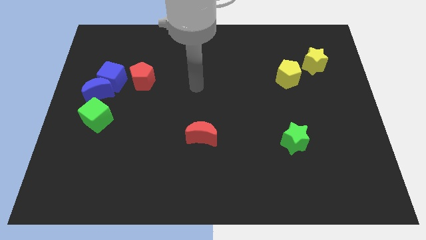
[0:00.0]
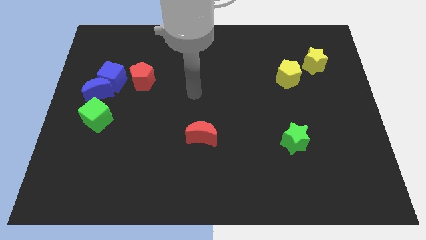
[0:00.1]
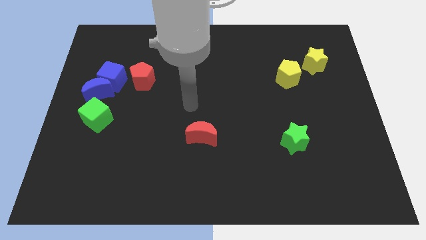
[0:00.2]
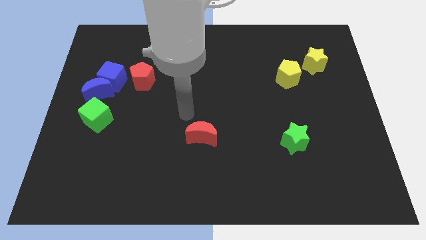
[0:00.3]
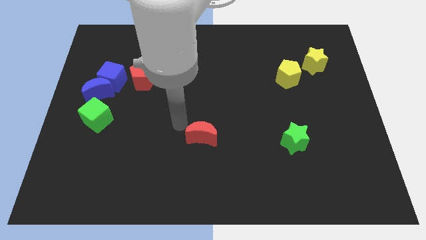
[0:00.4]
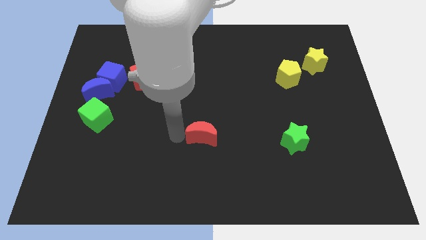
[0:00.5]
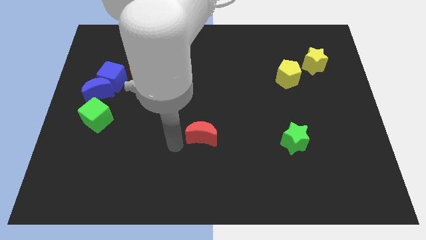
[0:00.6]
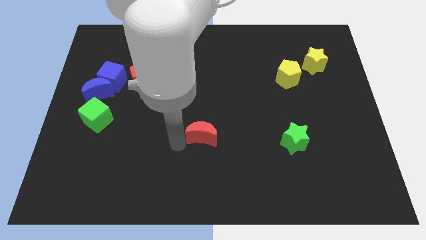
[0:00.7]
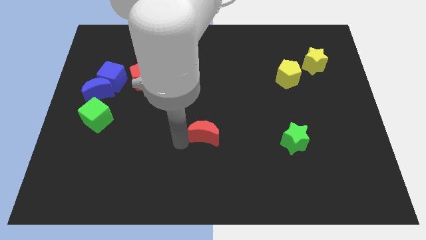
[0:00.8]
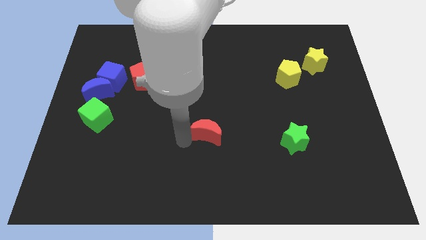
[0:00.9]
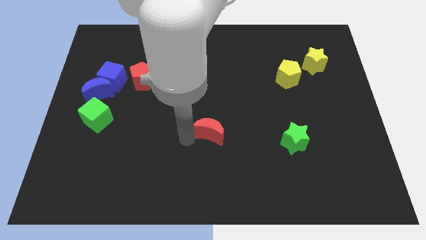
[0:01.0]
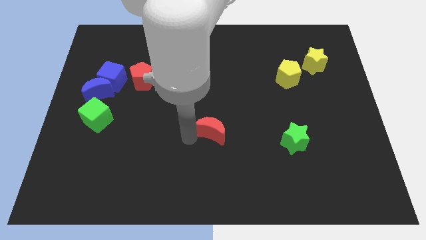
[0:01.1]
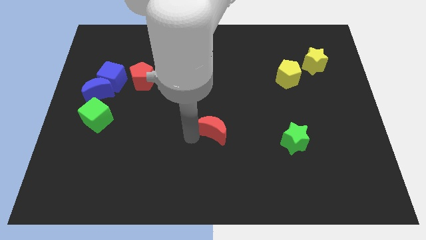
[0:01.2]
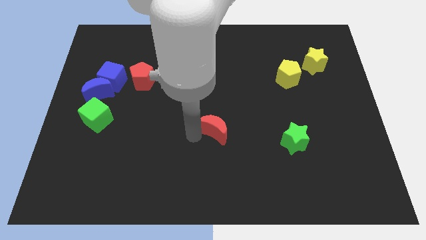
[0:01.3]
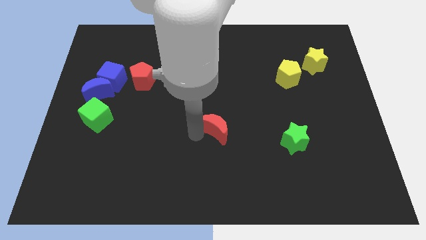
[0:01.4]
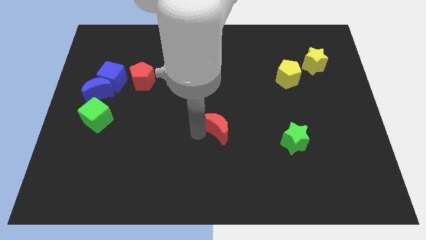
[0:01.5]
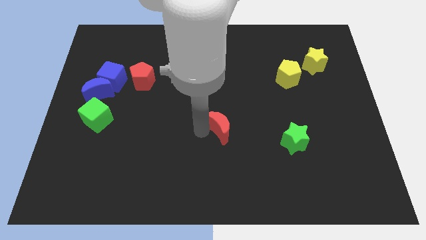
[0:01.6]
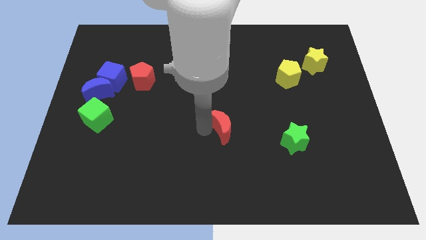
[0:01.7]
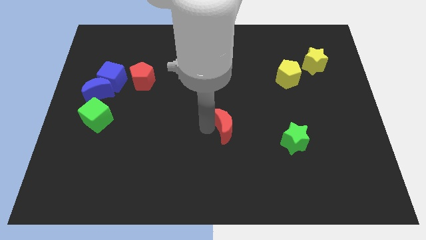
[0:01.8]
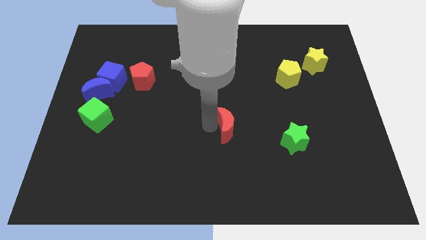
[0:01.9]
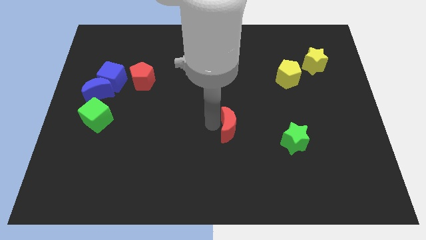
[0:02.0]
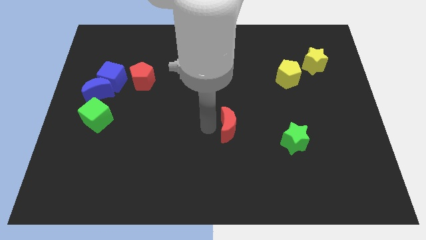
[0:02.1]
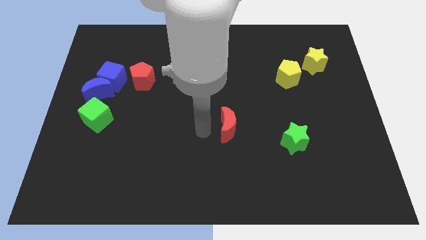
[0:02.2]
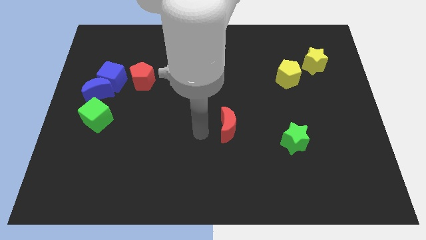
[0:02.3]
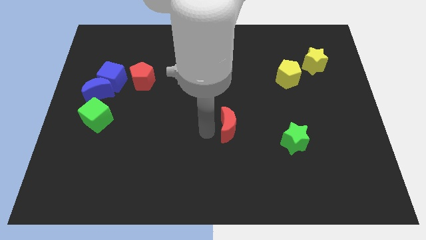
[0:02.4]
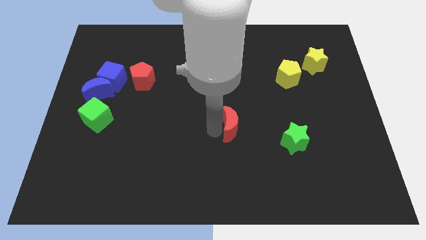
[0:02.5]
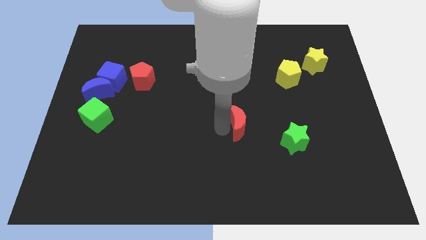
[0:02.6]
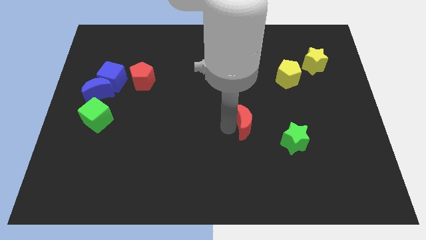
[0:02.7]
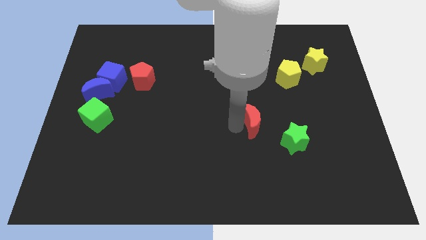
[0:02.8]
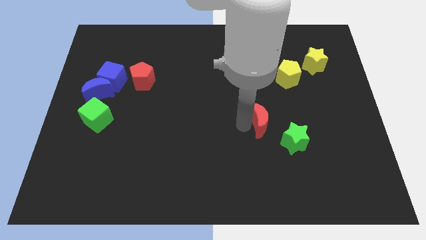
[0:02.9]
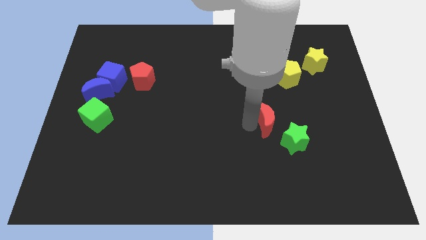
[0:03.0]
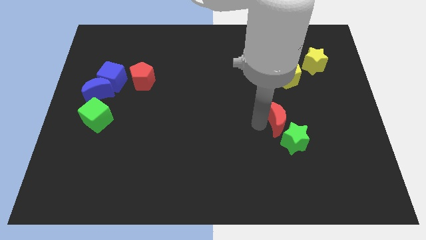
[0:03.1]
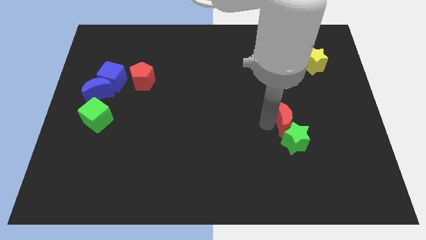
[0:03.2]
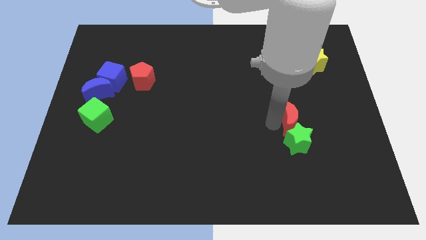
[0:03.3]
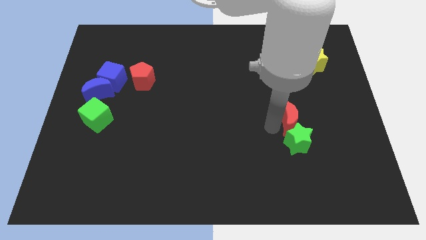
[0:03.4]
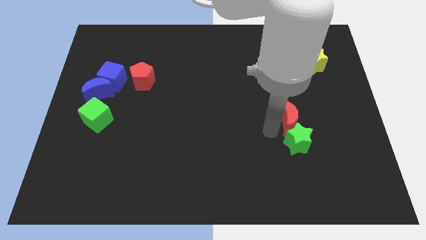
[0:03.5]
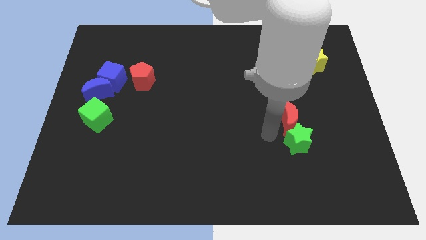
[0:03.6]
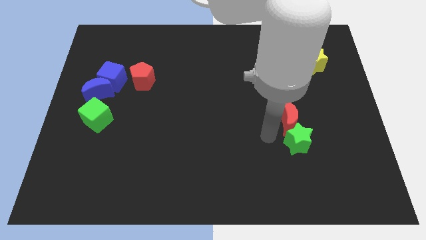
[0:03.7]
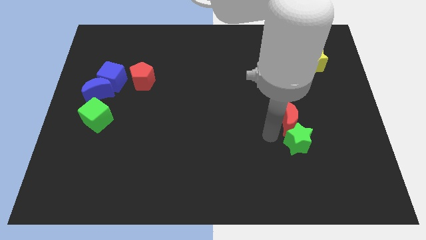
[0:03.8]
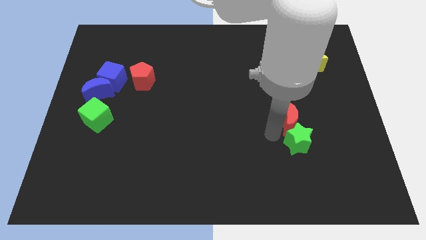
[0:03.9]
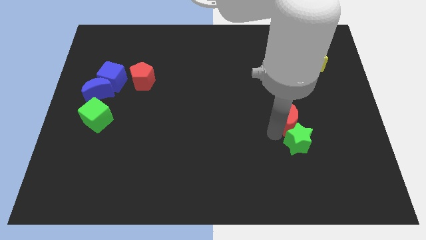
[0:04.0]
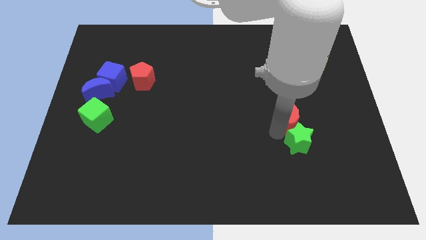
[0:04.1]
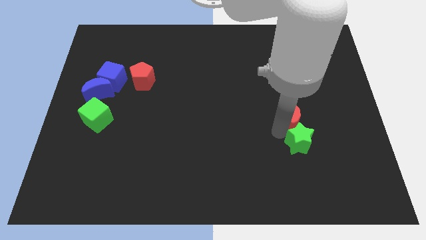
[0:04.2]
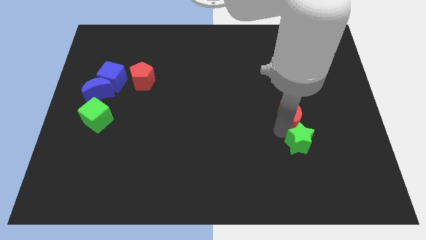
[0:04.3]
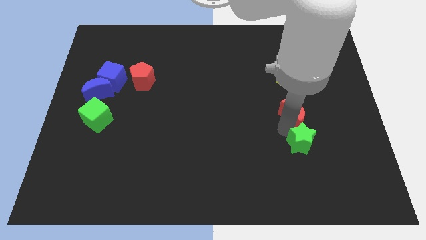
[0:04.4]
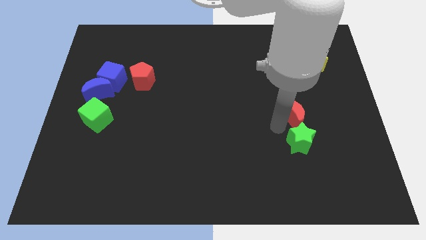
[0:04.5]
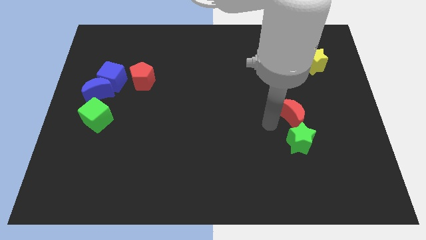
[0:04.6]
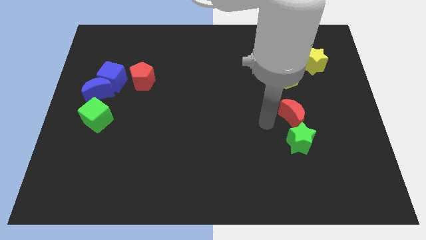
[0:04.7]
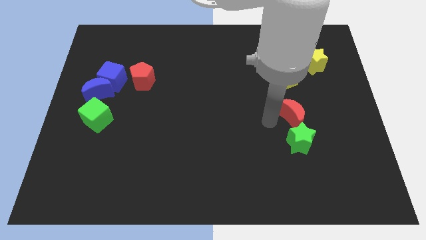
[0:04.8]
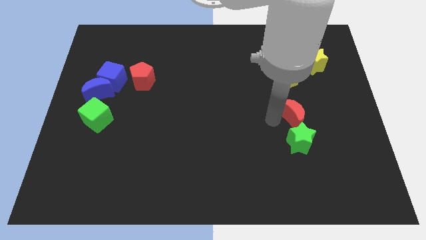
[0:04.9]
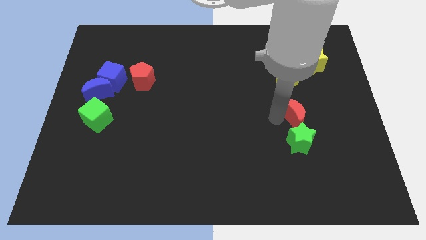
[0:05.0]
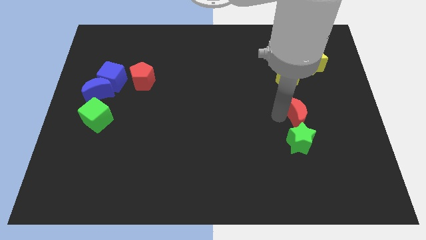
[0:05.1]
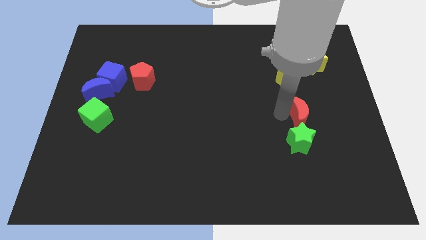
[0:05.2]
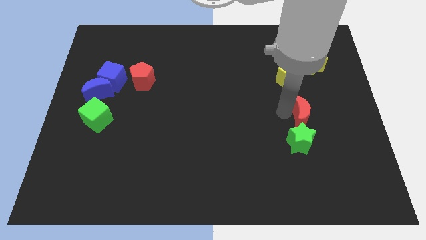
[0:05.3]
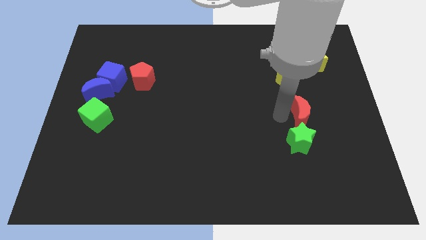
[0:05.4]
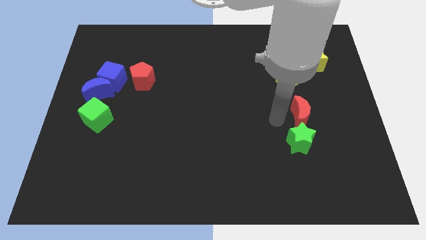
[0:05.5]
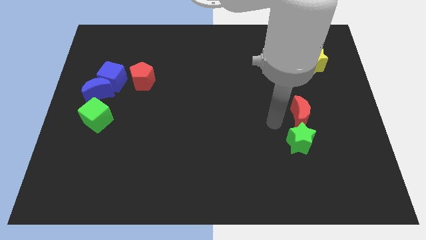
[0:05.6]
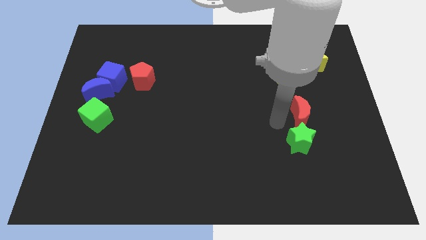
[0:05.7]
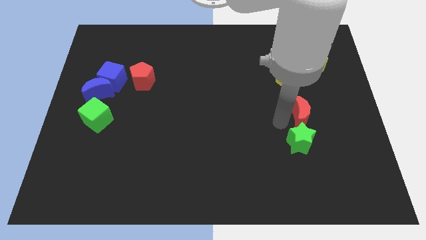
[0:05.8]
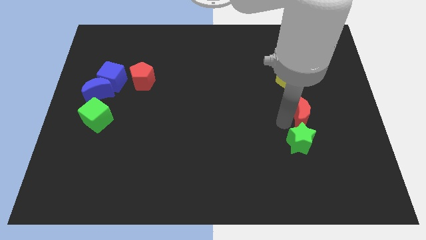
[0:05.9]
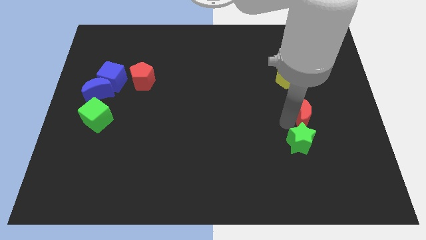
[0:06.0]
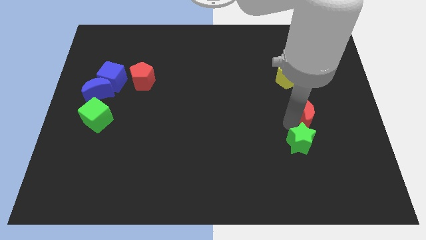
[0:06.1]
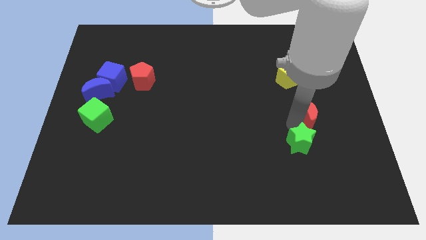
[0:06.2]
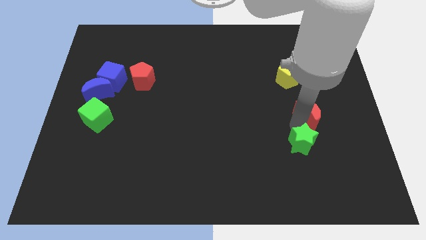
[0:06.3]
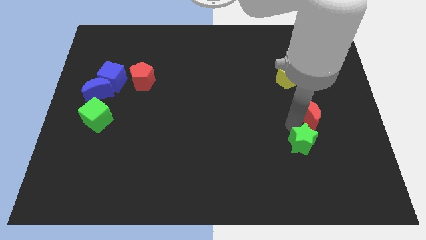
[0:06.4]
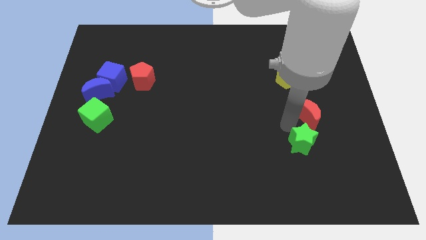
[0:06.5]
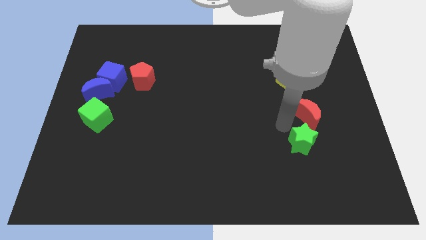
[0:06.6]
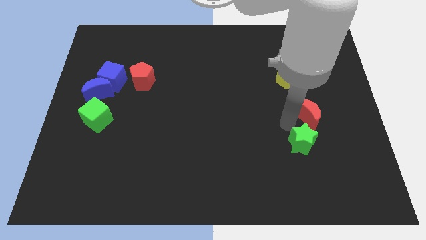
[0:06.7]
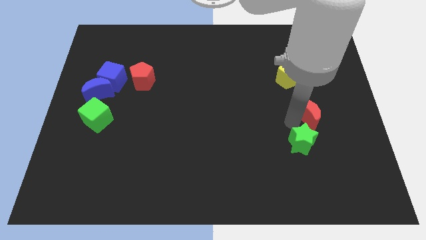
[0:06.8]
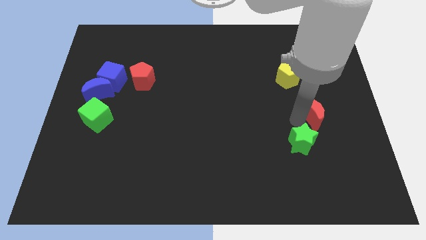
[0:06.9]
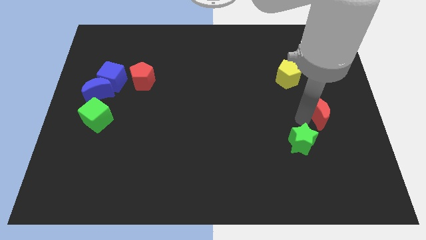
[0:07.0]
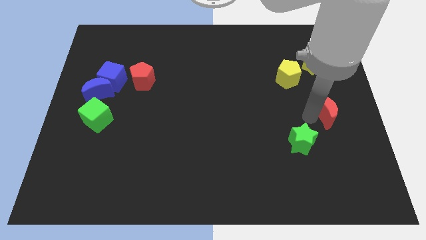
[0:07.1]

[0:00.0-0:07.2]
move the red moon to the center right
